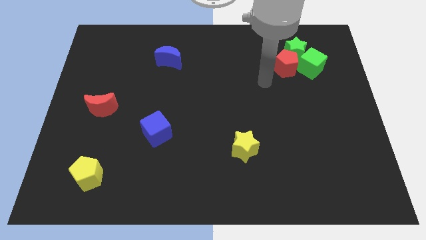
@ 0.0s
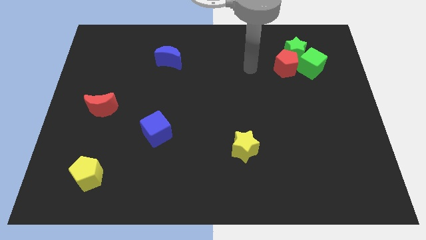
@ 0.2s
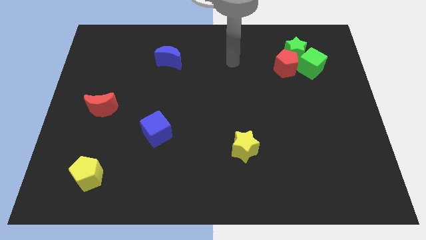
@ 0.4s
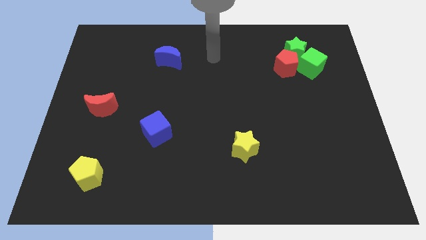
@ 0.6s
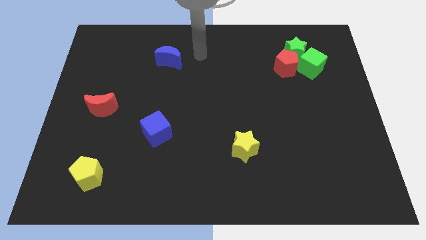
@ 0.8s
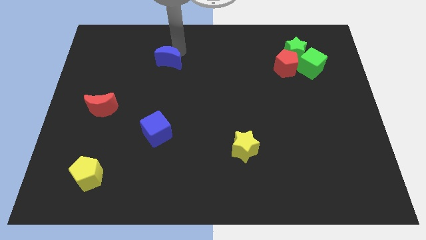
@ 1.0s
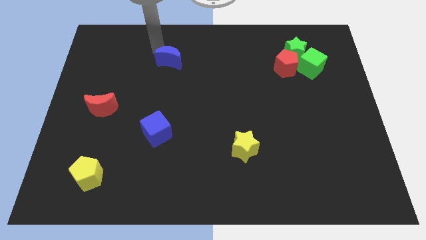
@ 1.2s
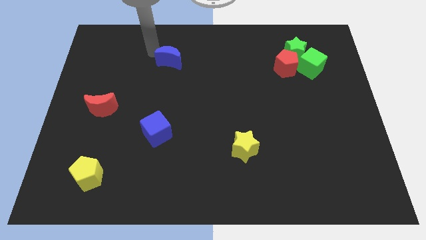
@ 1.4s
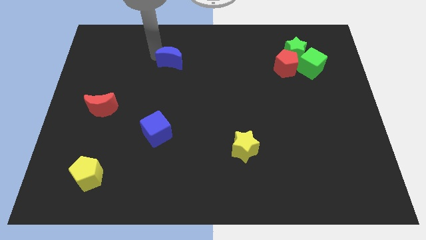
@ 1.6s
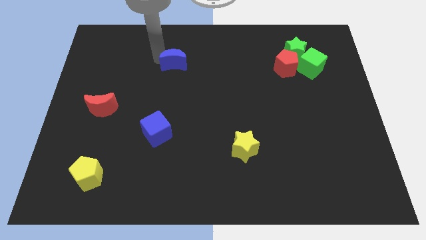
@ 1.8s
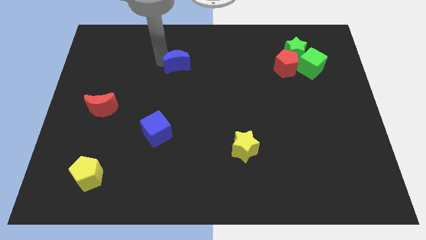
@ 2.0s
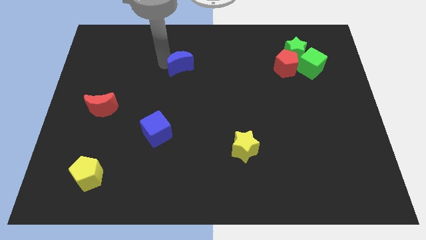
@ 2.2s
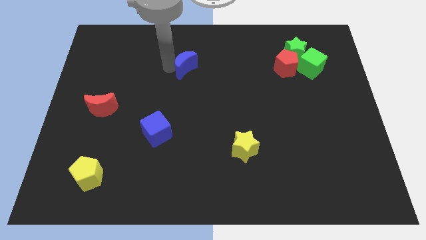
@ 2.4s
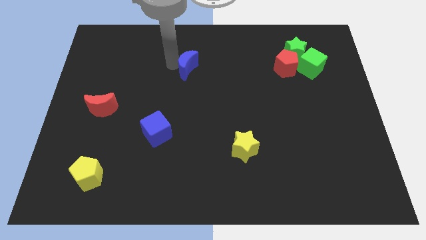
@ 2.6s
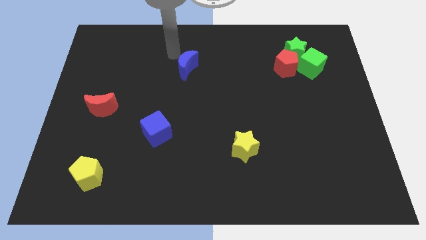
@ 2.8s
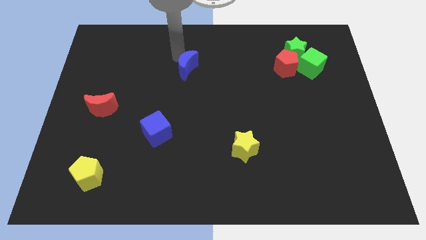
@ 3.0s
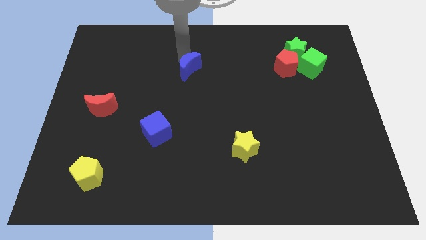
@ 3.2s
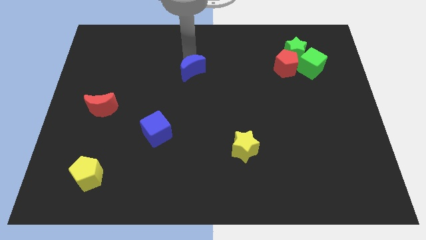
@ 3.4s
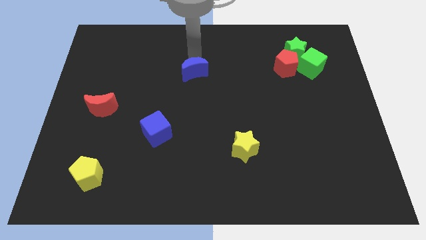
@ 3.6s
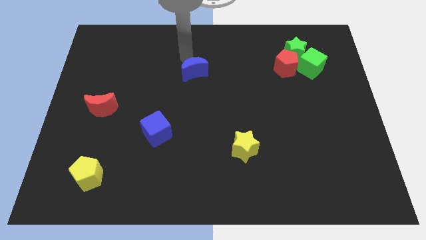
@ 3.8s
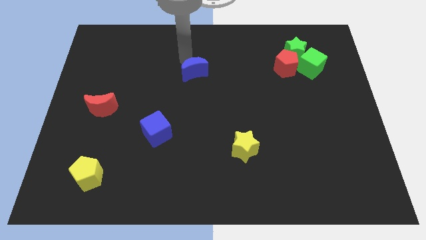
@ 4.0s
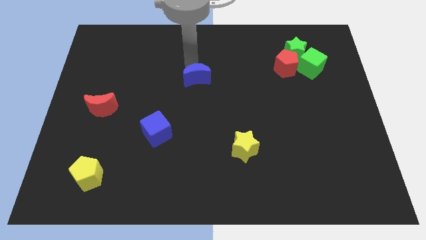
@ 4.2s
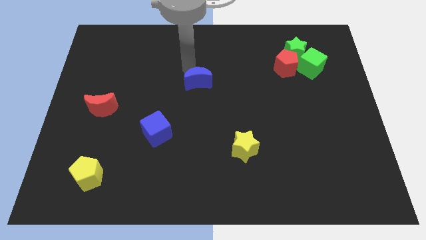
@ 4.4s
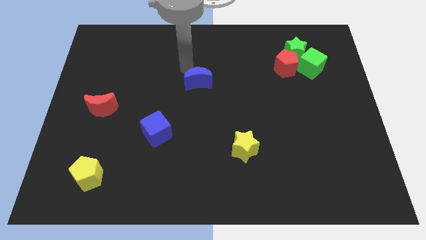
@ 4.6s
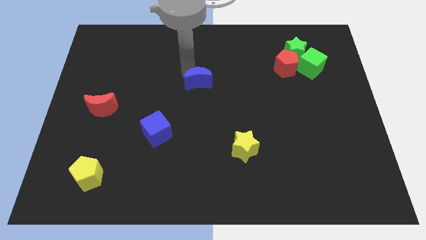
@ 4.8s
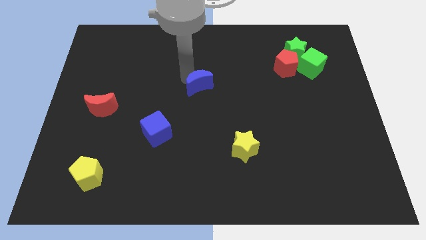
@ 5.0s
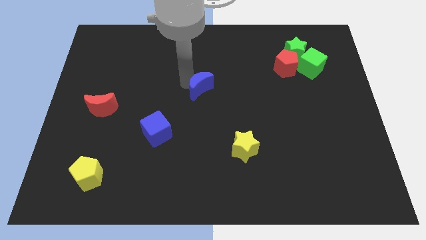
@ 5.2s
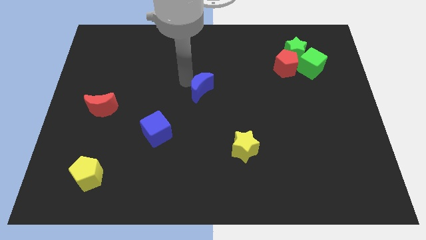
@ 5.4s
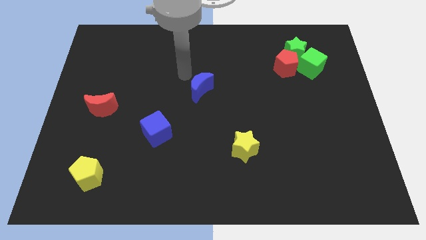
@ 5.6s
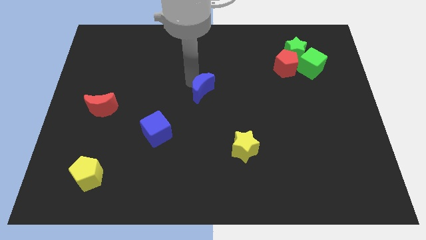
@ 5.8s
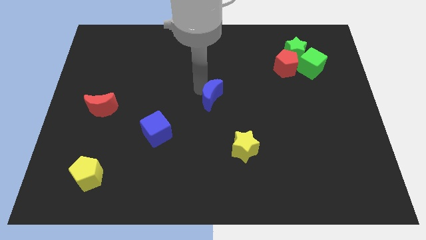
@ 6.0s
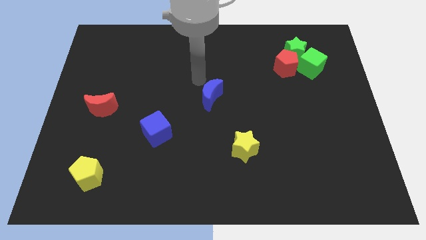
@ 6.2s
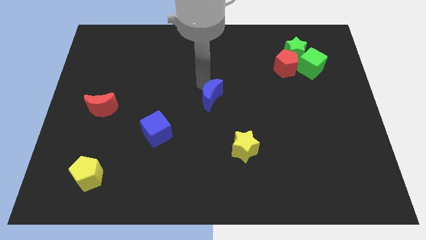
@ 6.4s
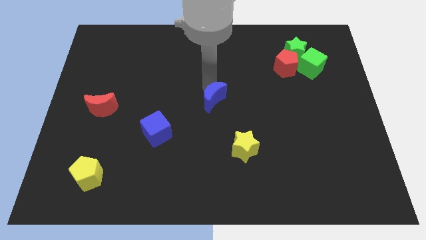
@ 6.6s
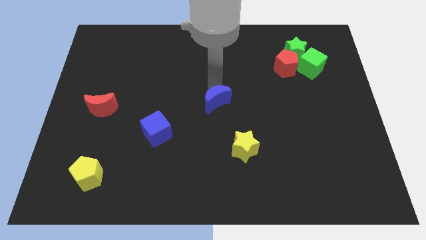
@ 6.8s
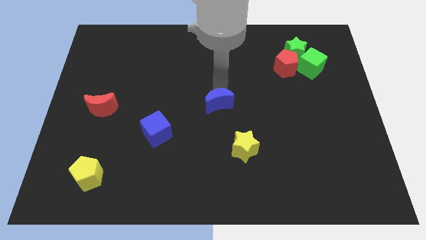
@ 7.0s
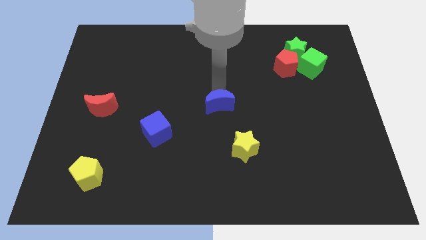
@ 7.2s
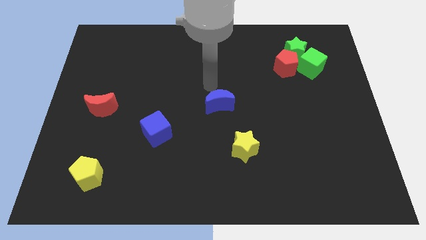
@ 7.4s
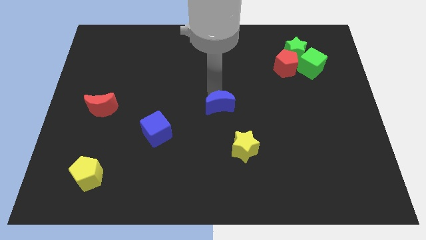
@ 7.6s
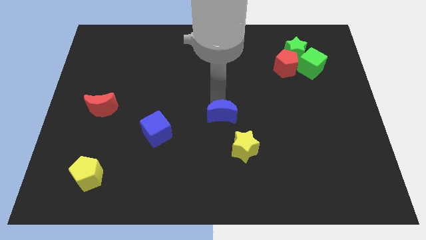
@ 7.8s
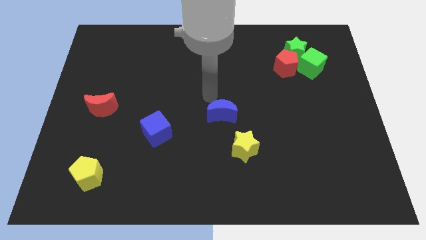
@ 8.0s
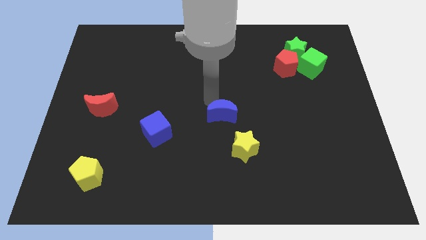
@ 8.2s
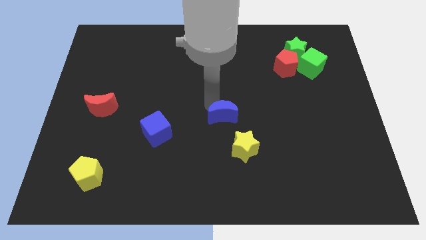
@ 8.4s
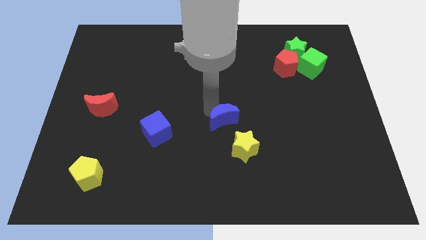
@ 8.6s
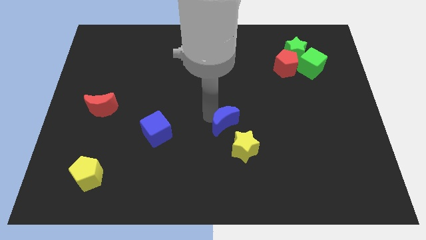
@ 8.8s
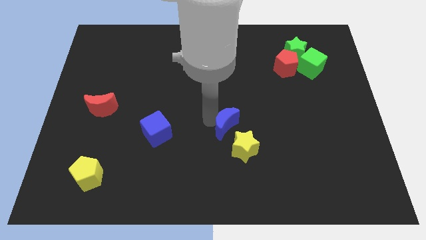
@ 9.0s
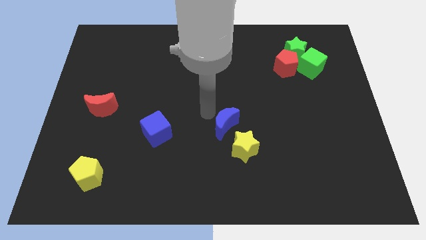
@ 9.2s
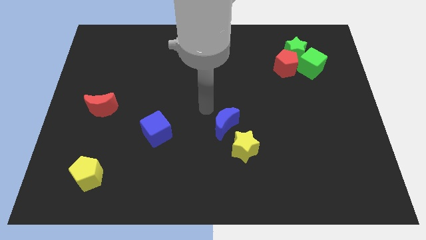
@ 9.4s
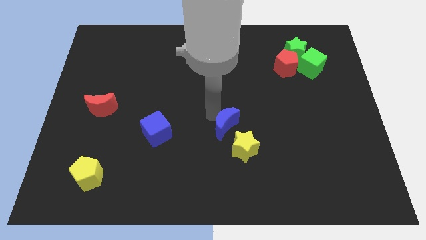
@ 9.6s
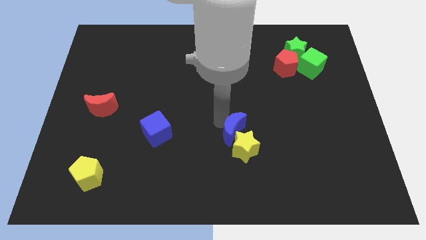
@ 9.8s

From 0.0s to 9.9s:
push the blue moon next to the yellow star

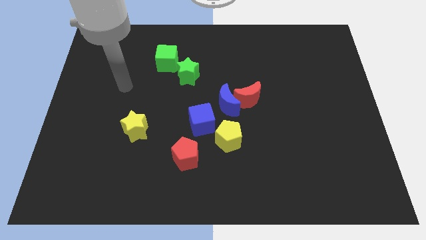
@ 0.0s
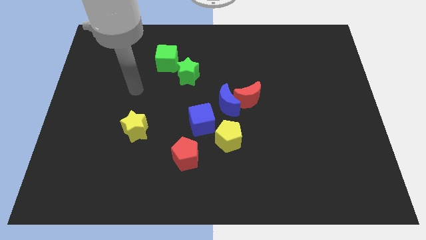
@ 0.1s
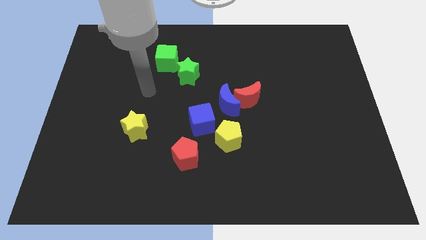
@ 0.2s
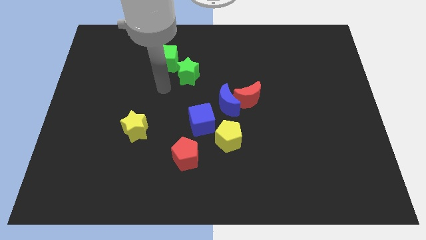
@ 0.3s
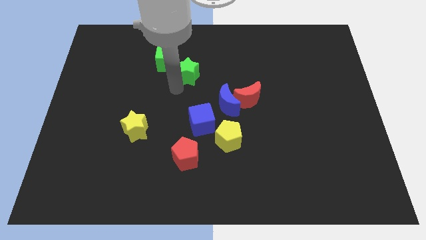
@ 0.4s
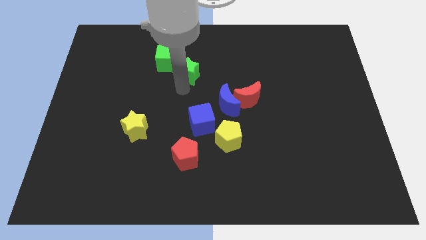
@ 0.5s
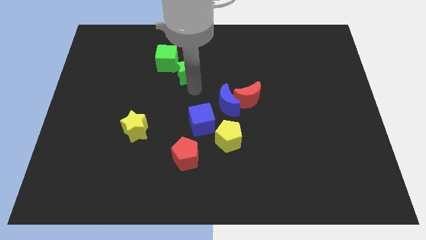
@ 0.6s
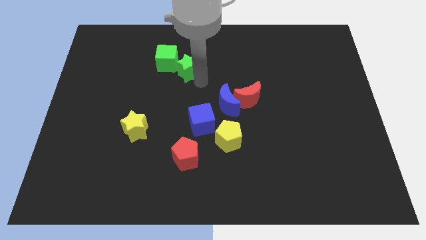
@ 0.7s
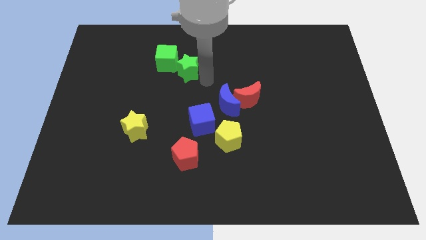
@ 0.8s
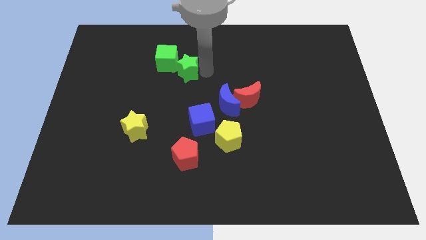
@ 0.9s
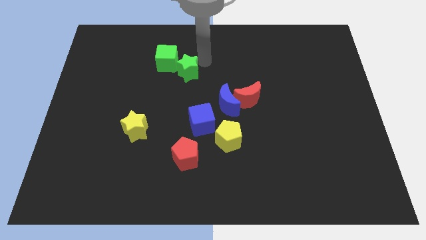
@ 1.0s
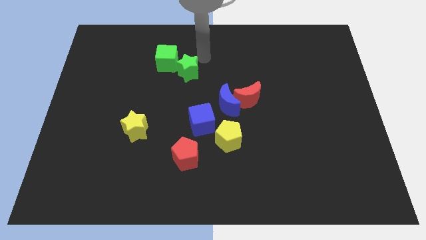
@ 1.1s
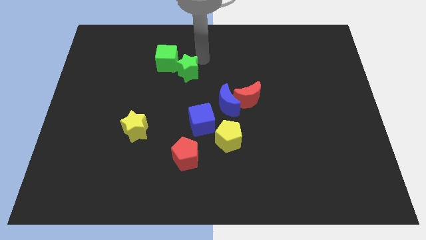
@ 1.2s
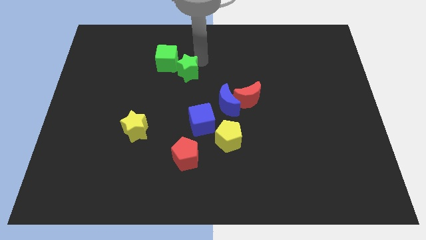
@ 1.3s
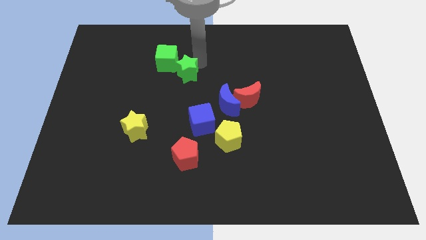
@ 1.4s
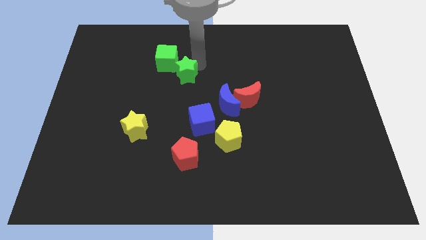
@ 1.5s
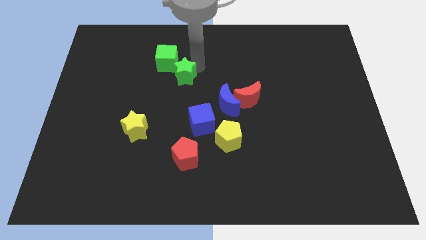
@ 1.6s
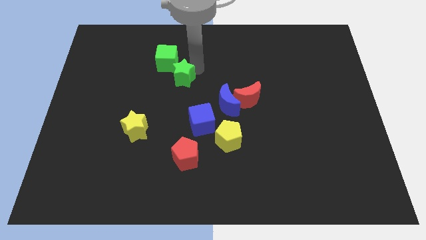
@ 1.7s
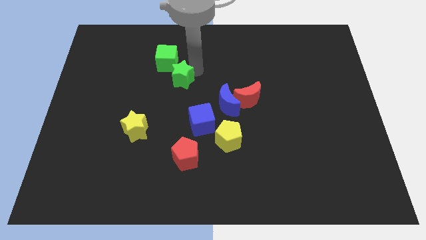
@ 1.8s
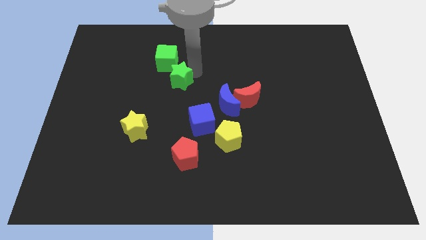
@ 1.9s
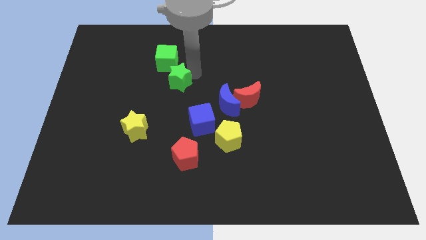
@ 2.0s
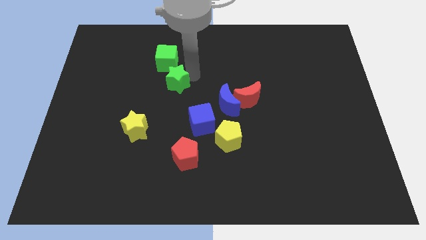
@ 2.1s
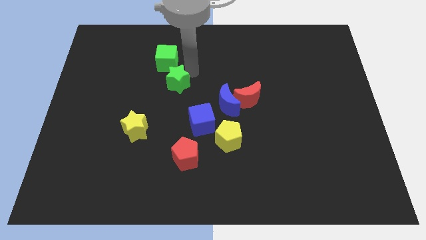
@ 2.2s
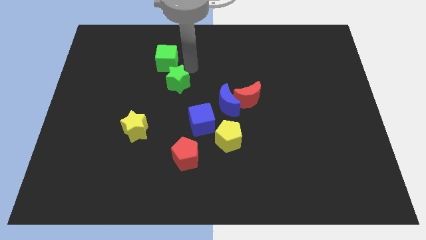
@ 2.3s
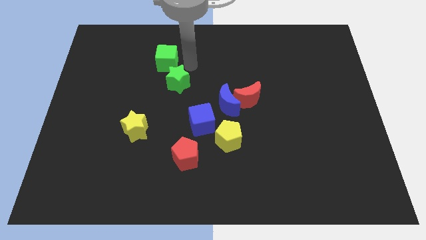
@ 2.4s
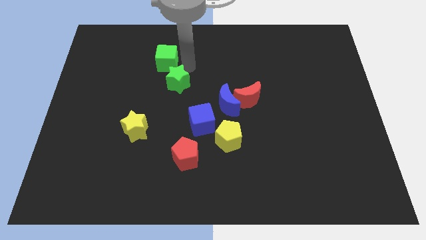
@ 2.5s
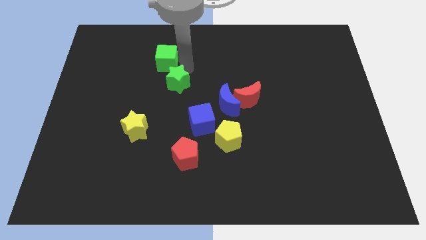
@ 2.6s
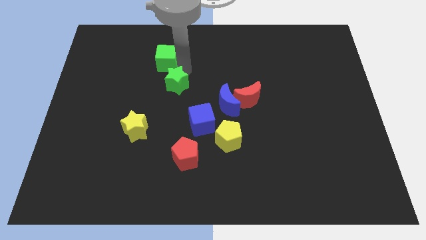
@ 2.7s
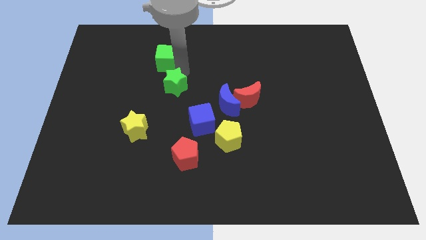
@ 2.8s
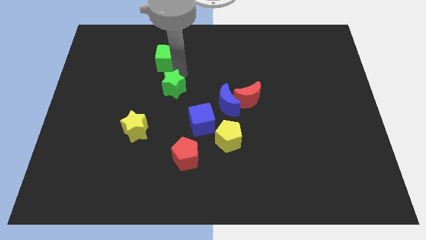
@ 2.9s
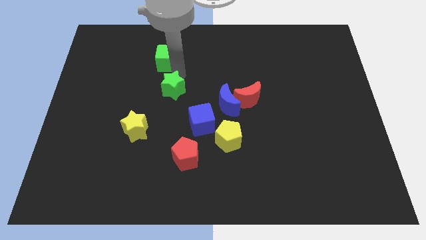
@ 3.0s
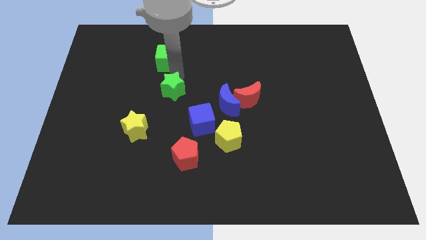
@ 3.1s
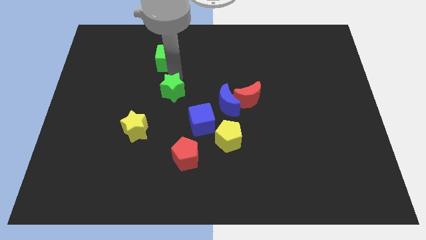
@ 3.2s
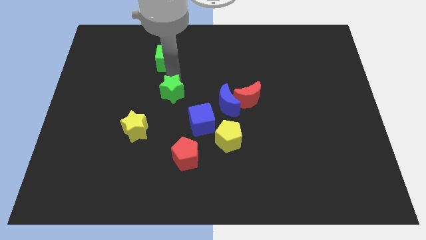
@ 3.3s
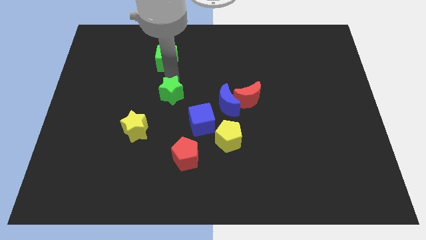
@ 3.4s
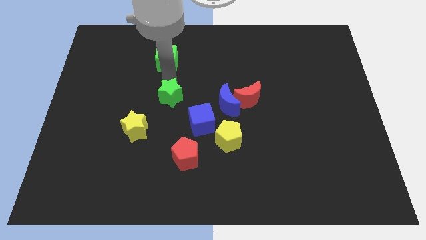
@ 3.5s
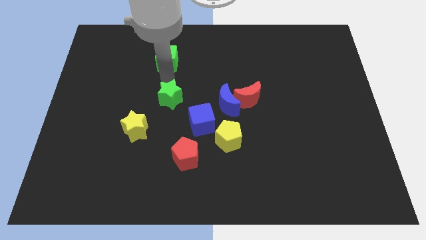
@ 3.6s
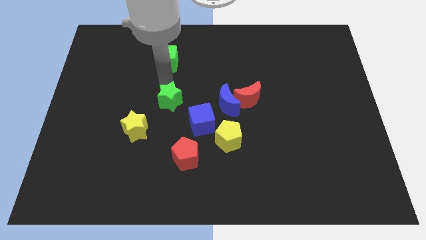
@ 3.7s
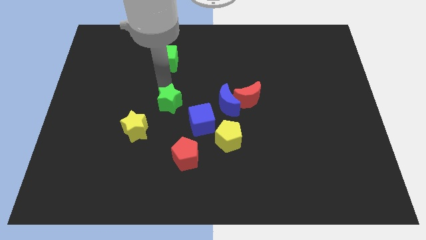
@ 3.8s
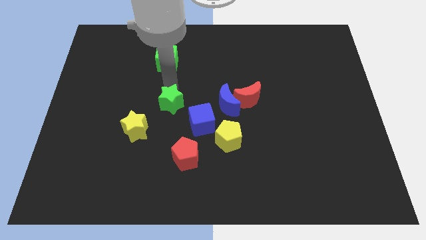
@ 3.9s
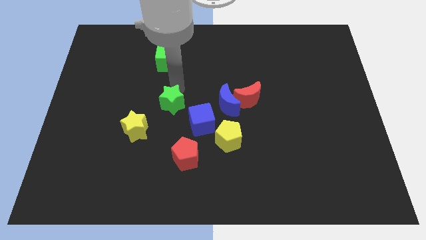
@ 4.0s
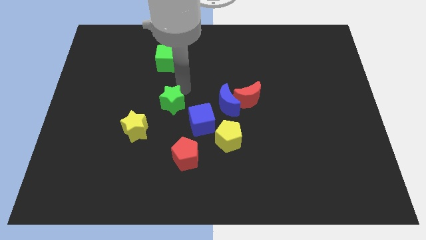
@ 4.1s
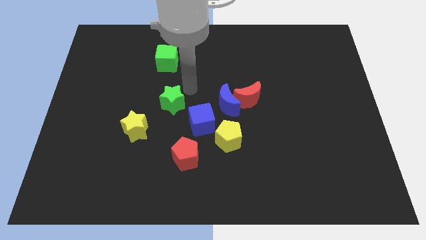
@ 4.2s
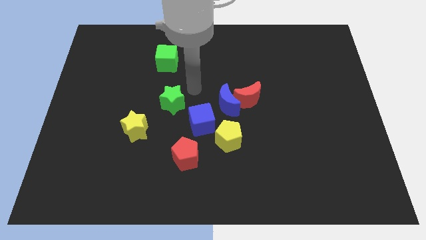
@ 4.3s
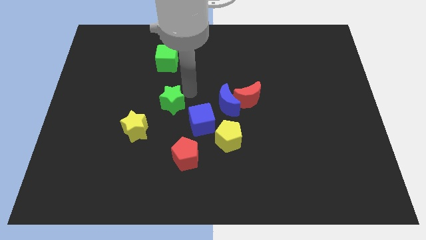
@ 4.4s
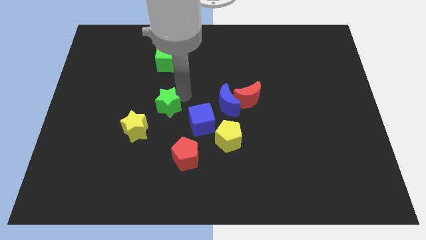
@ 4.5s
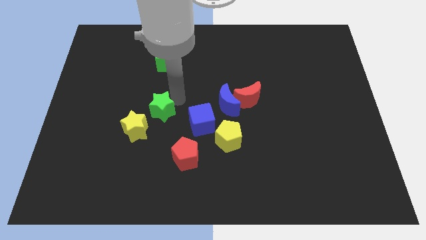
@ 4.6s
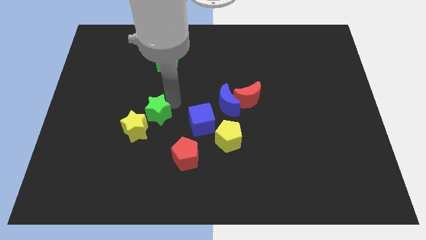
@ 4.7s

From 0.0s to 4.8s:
put the green star towards the yellow star
